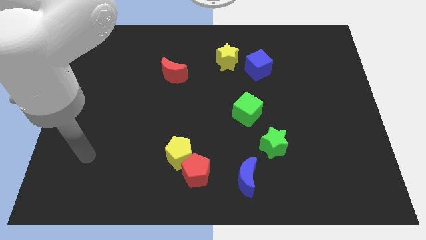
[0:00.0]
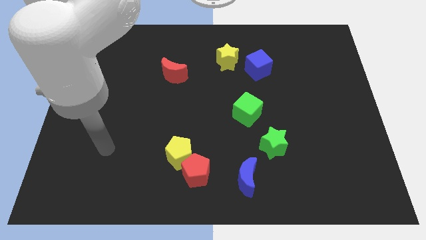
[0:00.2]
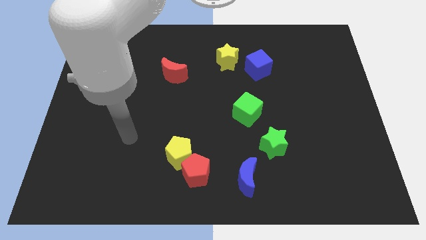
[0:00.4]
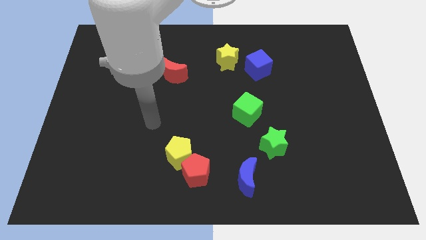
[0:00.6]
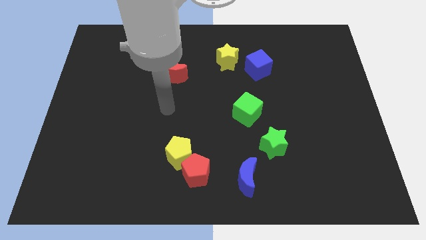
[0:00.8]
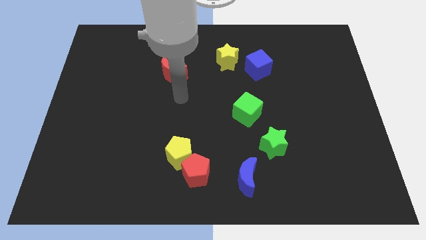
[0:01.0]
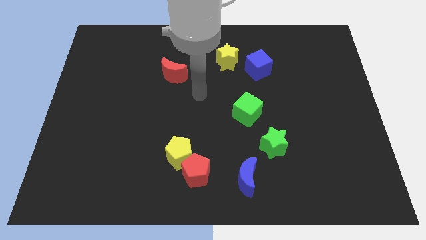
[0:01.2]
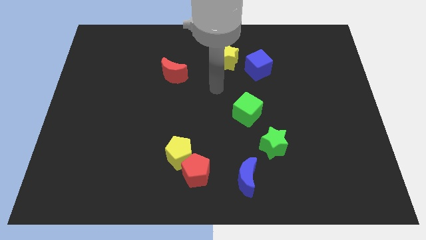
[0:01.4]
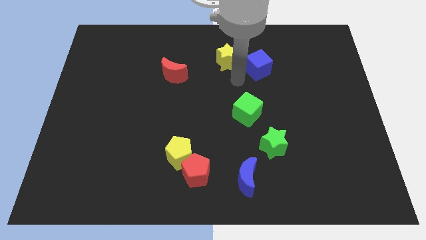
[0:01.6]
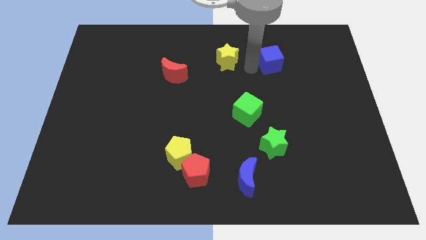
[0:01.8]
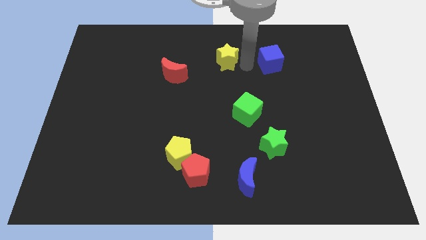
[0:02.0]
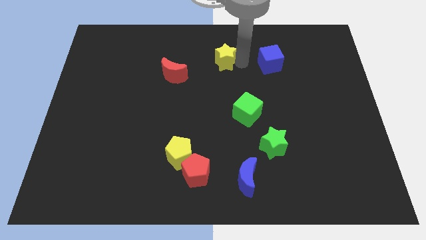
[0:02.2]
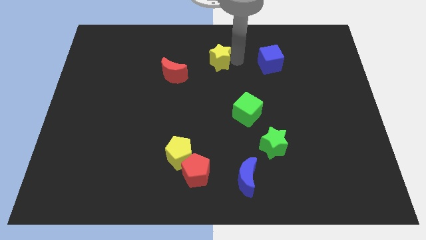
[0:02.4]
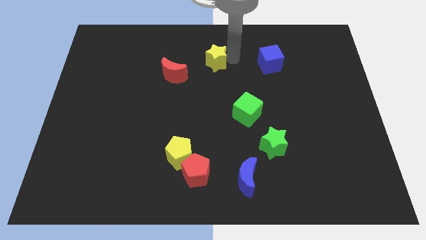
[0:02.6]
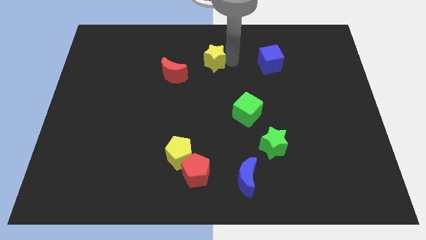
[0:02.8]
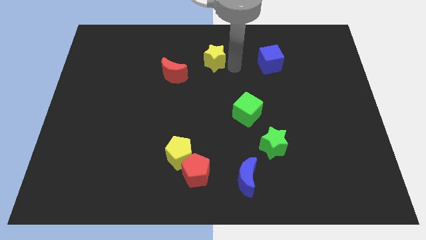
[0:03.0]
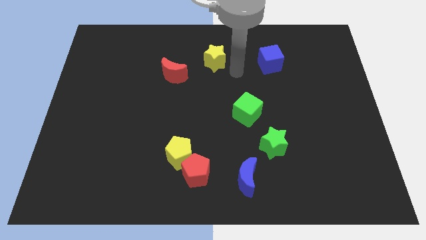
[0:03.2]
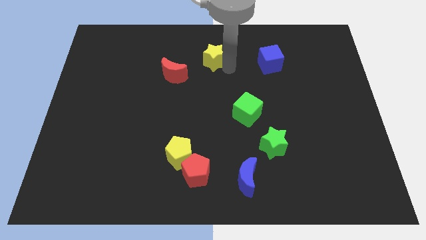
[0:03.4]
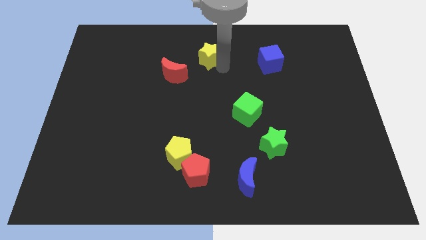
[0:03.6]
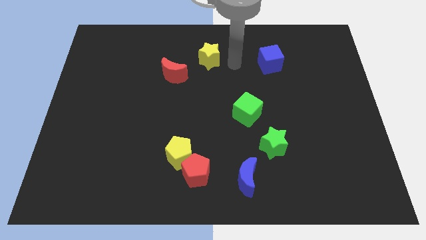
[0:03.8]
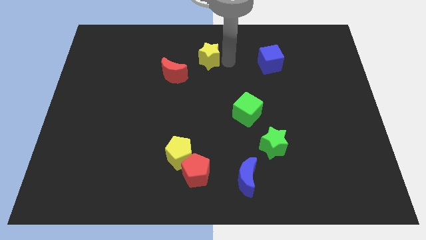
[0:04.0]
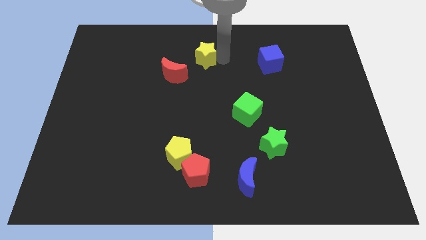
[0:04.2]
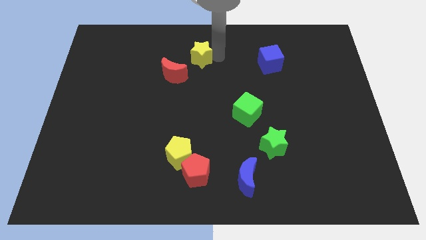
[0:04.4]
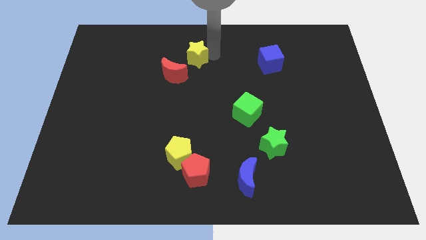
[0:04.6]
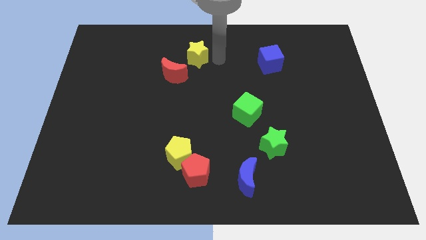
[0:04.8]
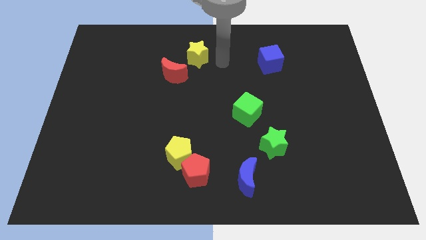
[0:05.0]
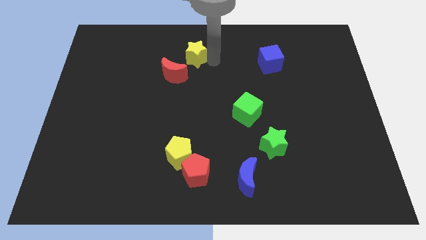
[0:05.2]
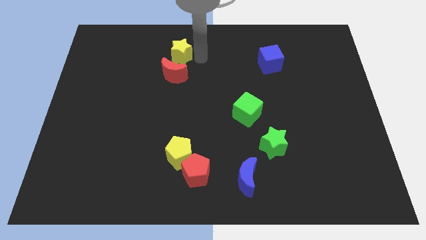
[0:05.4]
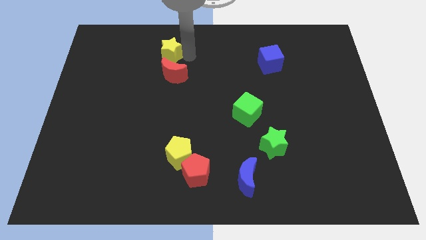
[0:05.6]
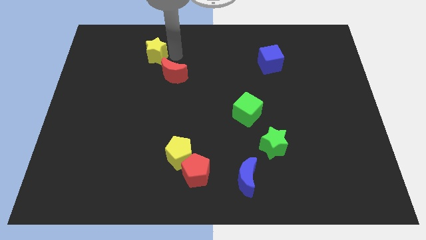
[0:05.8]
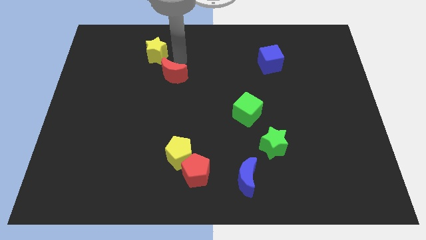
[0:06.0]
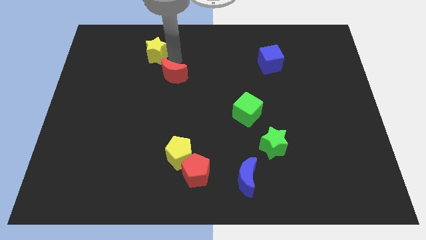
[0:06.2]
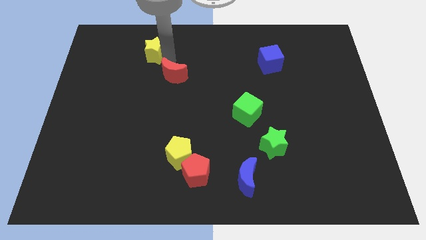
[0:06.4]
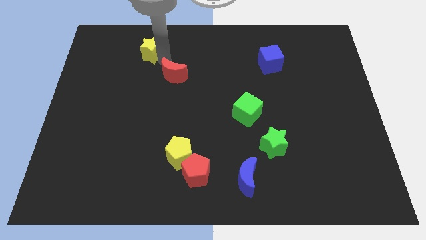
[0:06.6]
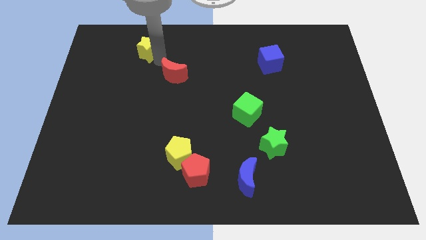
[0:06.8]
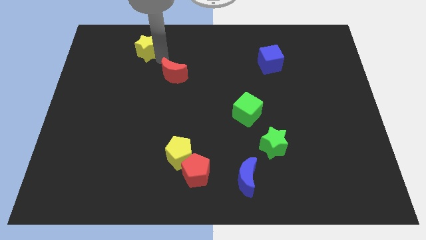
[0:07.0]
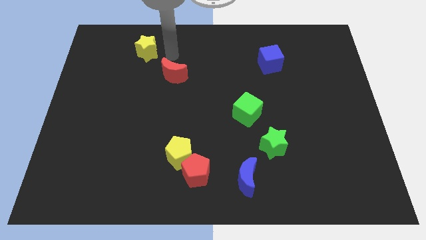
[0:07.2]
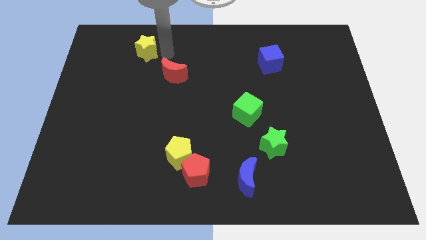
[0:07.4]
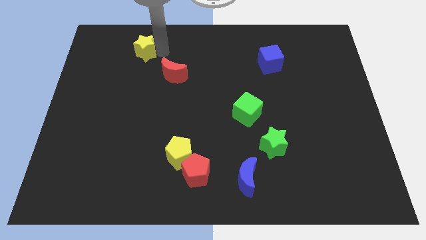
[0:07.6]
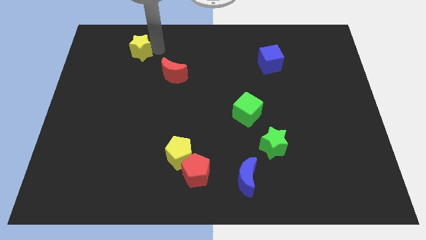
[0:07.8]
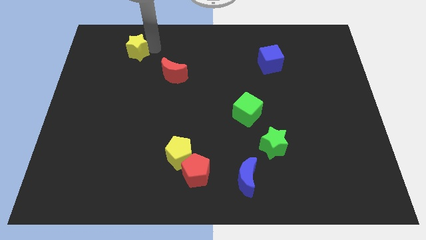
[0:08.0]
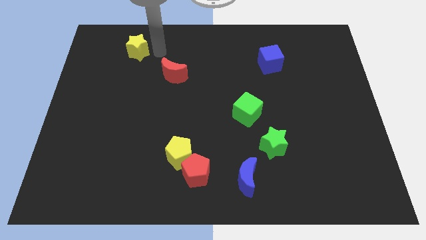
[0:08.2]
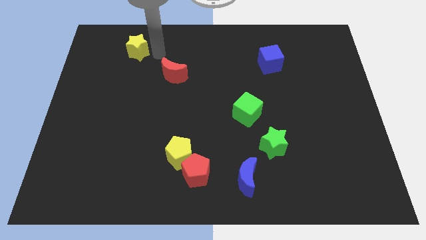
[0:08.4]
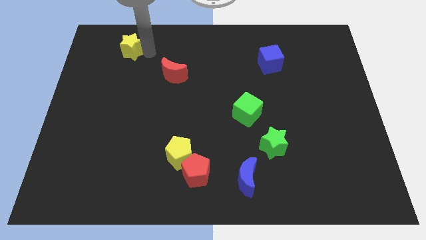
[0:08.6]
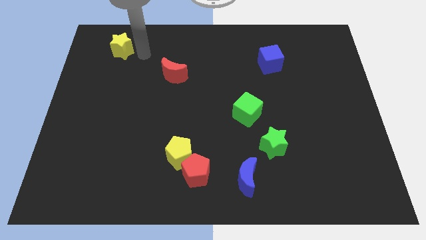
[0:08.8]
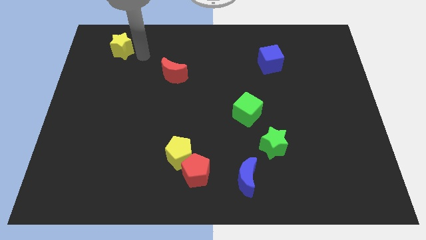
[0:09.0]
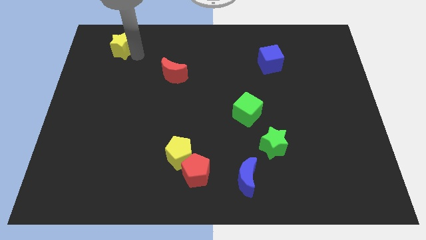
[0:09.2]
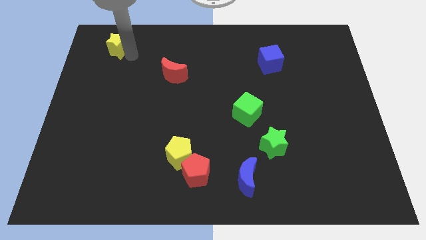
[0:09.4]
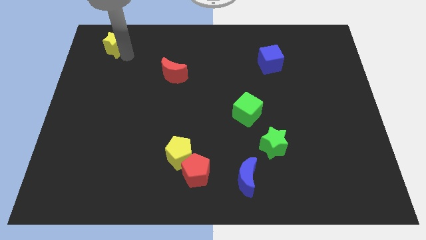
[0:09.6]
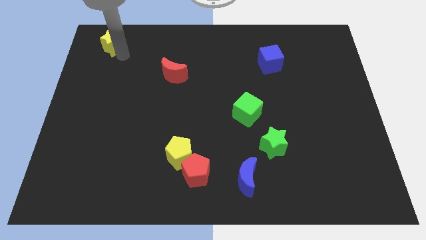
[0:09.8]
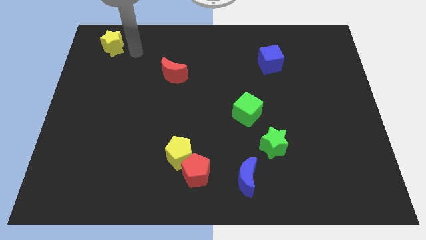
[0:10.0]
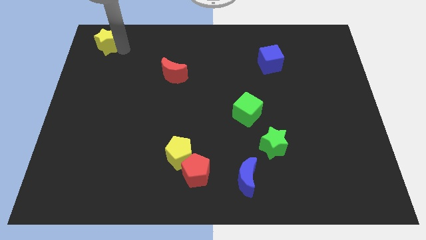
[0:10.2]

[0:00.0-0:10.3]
slide the yellow star to the top left corner
